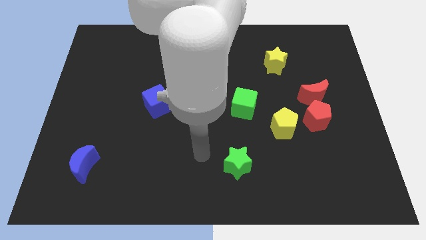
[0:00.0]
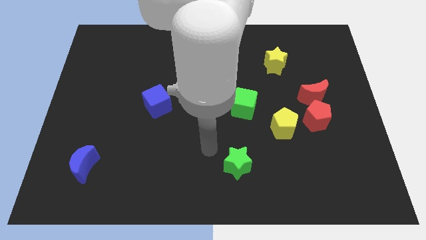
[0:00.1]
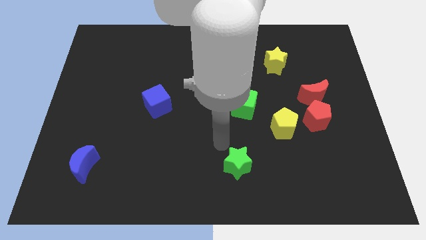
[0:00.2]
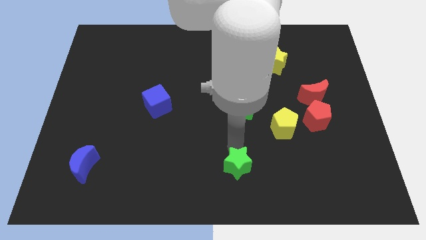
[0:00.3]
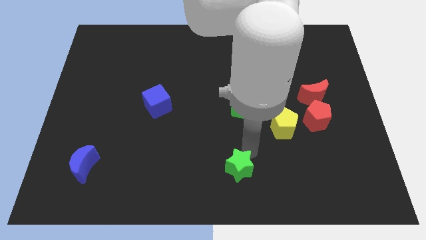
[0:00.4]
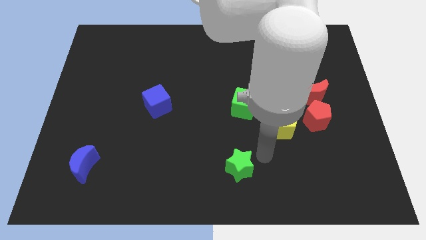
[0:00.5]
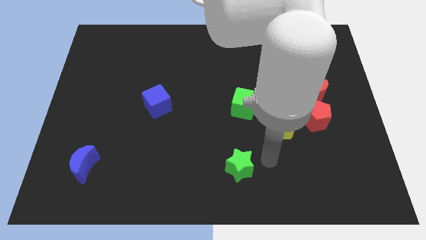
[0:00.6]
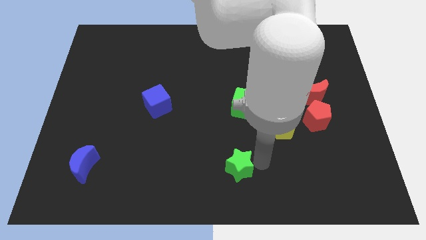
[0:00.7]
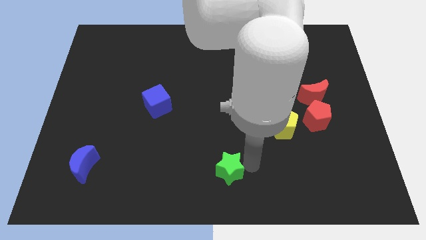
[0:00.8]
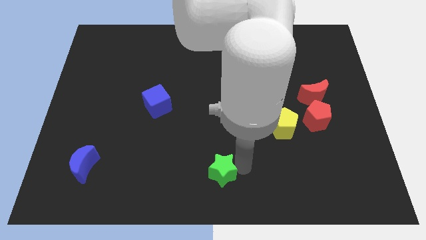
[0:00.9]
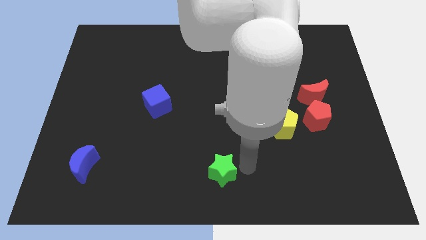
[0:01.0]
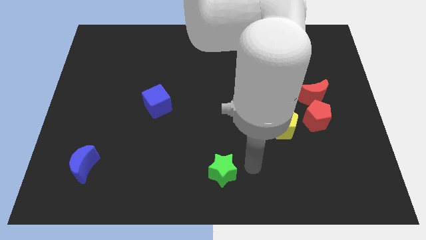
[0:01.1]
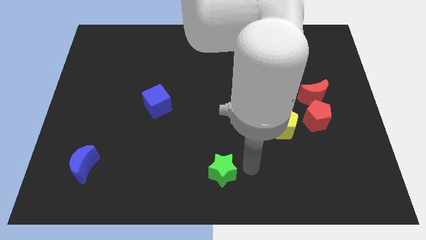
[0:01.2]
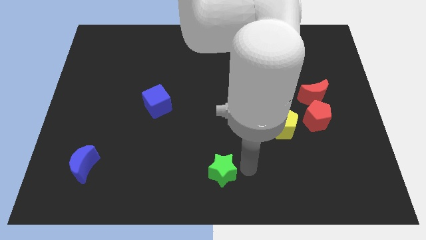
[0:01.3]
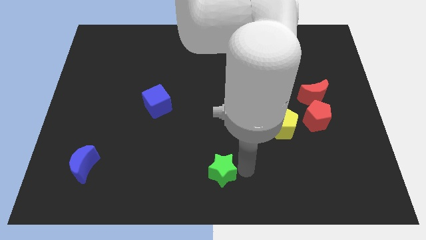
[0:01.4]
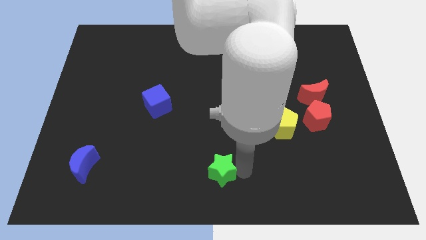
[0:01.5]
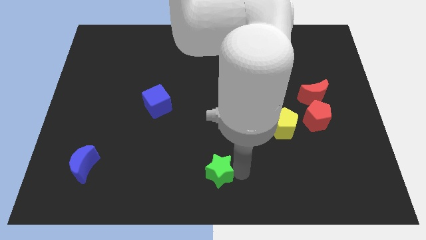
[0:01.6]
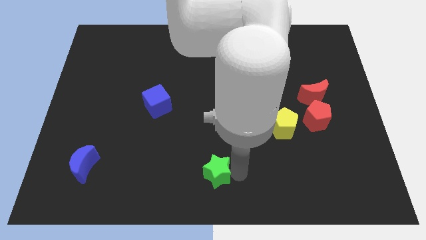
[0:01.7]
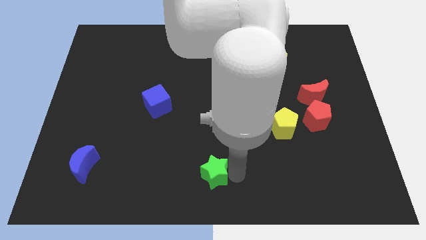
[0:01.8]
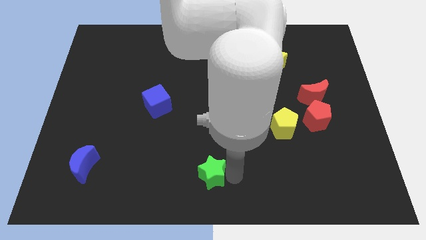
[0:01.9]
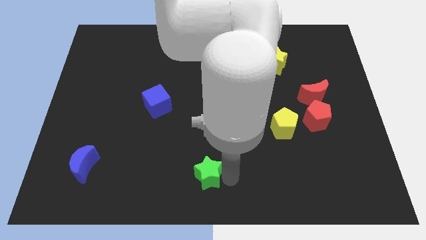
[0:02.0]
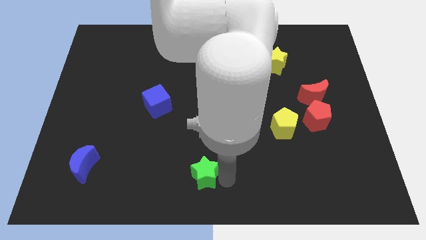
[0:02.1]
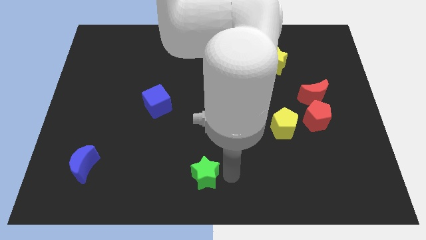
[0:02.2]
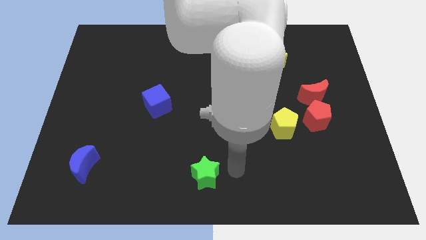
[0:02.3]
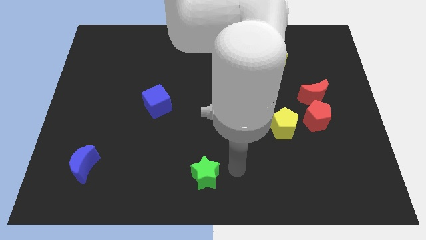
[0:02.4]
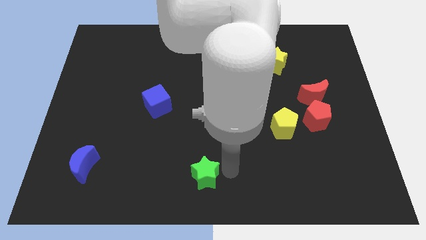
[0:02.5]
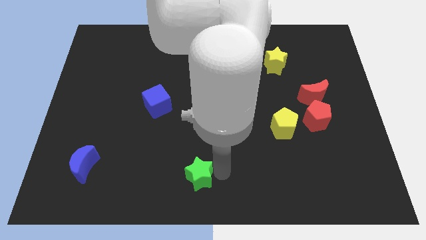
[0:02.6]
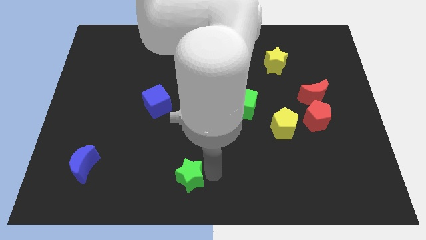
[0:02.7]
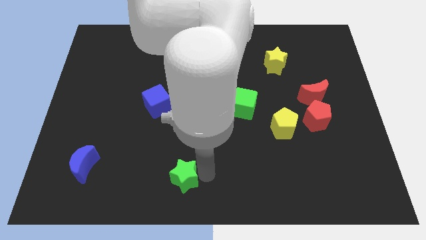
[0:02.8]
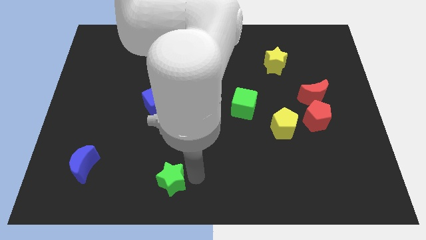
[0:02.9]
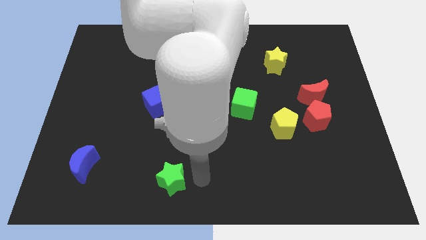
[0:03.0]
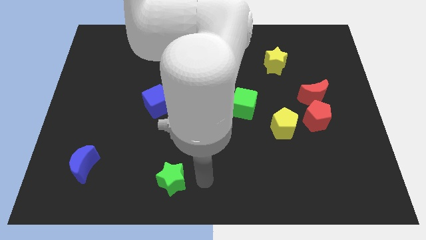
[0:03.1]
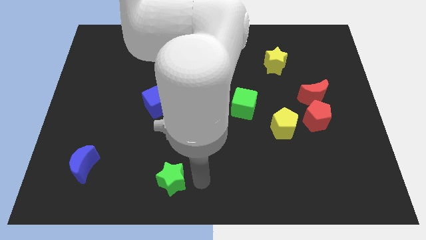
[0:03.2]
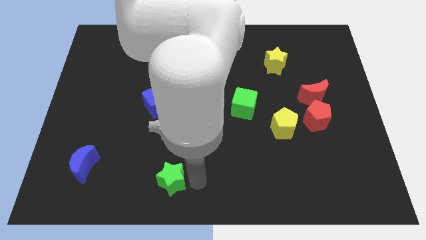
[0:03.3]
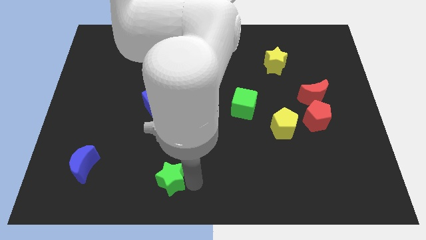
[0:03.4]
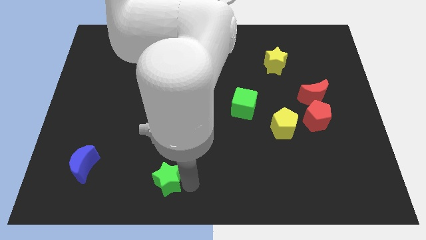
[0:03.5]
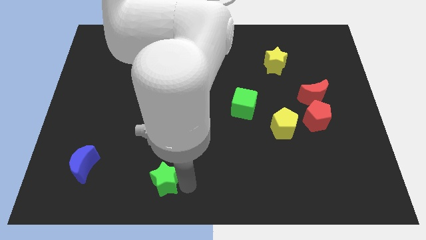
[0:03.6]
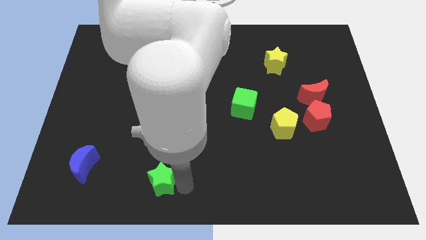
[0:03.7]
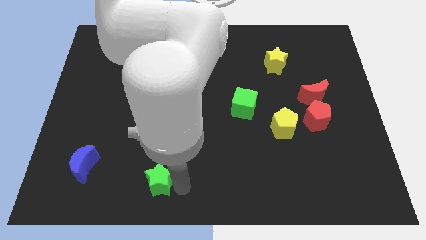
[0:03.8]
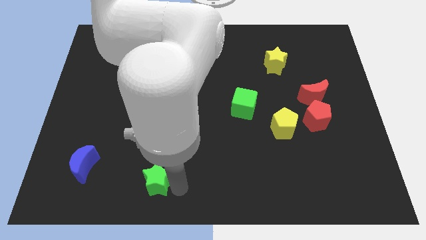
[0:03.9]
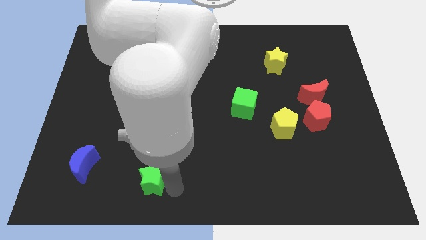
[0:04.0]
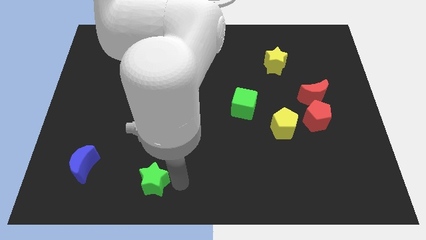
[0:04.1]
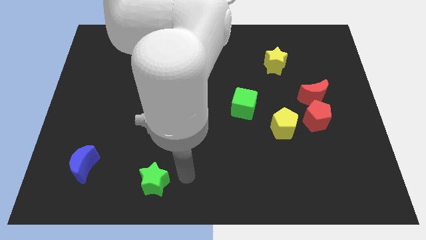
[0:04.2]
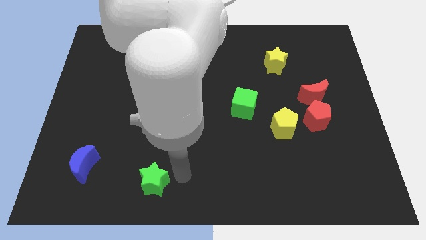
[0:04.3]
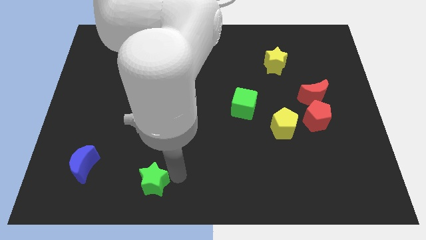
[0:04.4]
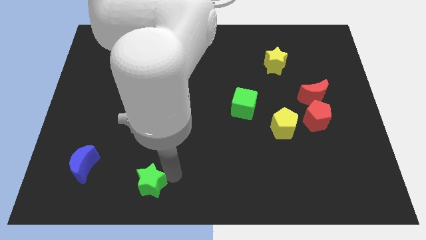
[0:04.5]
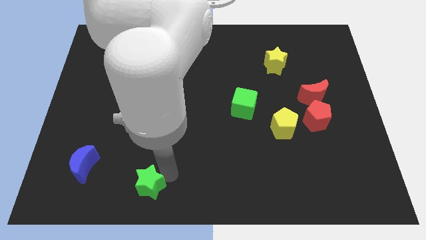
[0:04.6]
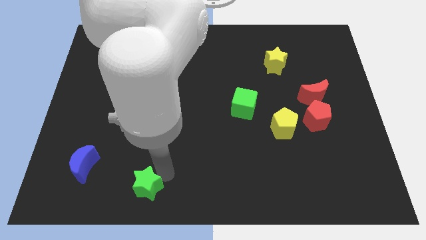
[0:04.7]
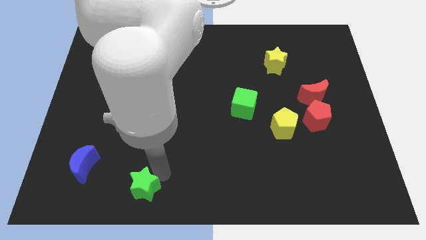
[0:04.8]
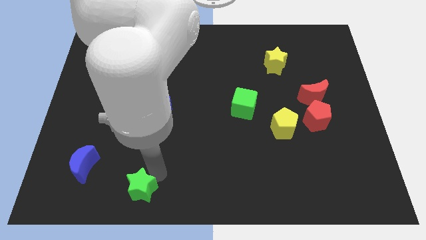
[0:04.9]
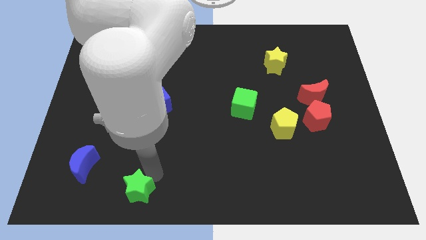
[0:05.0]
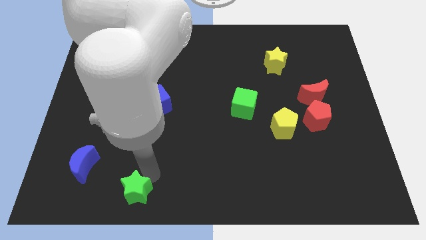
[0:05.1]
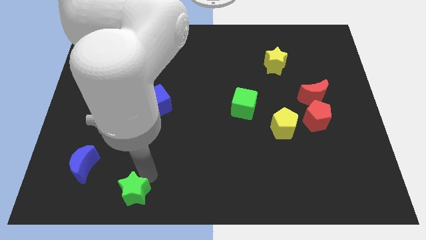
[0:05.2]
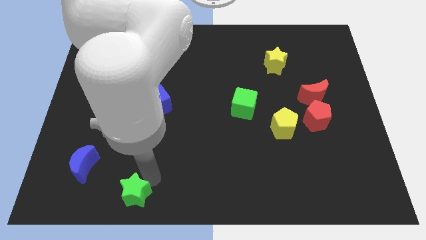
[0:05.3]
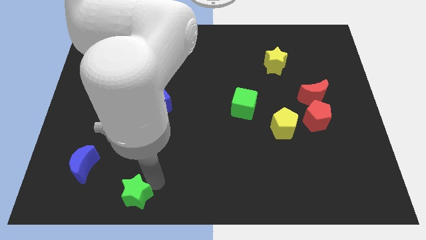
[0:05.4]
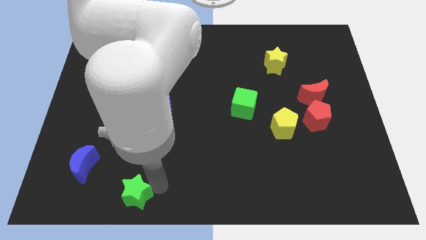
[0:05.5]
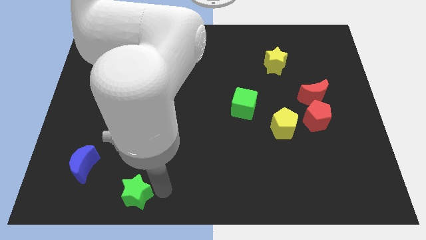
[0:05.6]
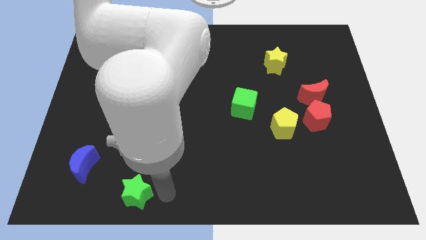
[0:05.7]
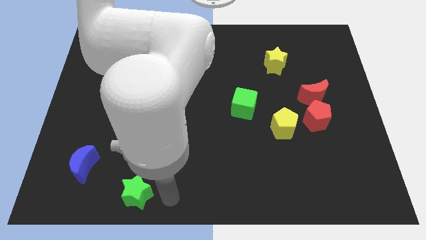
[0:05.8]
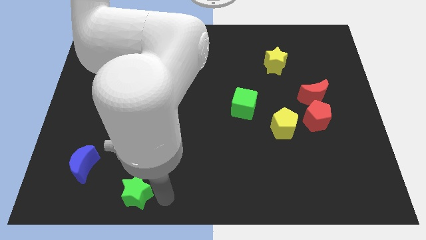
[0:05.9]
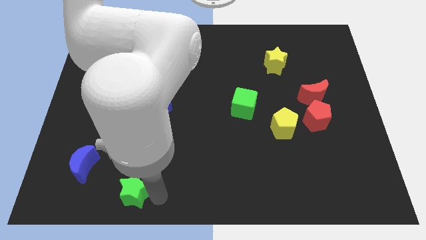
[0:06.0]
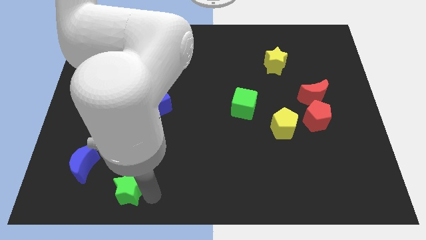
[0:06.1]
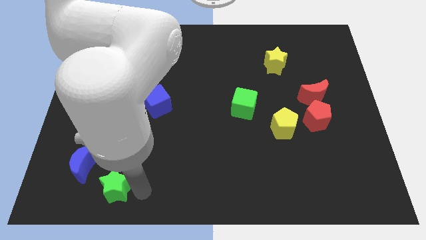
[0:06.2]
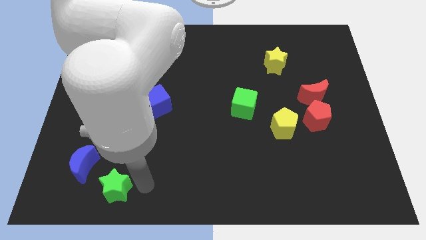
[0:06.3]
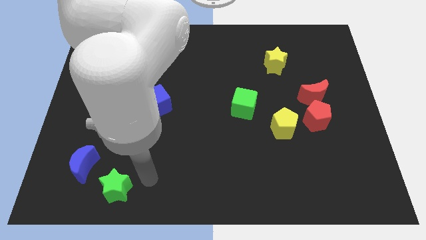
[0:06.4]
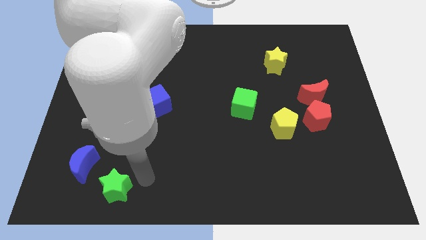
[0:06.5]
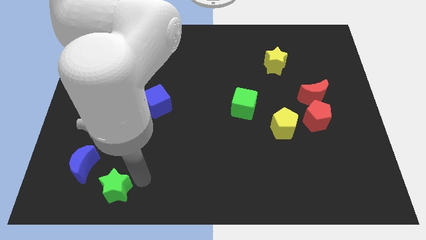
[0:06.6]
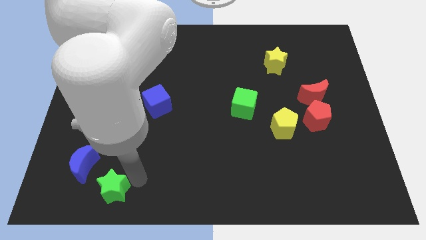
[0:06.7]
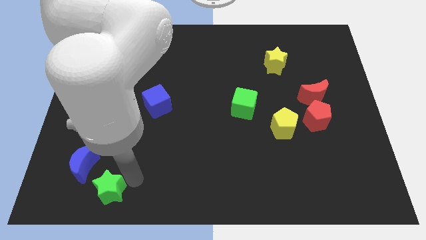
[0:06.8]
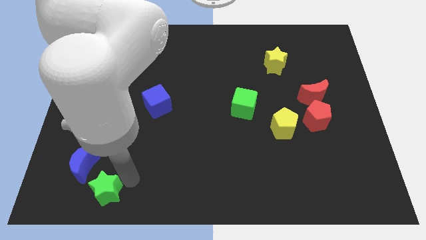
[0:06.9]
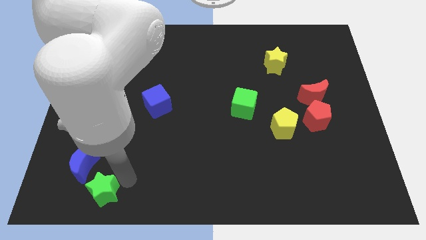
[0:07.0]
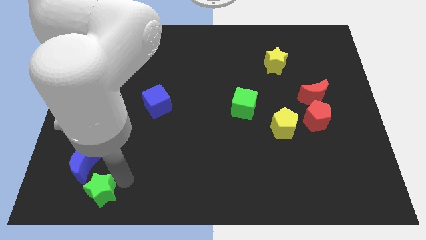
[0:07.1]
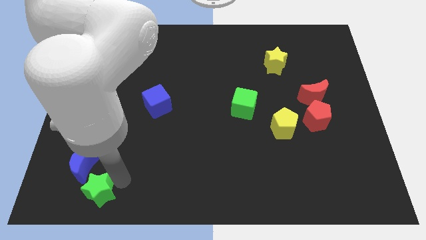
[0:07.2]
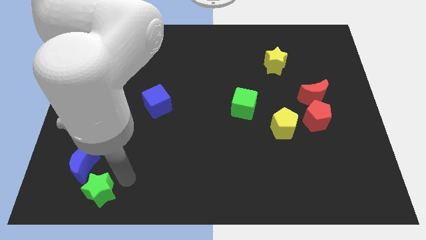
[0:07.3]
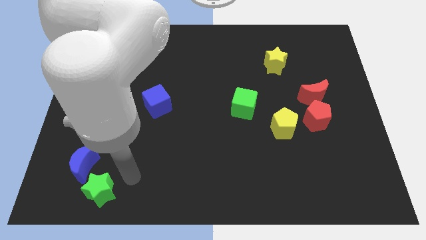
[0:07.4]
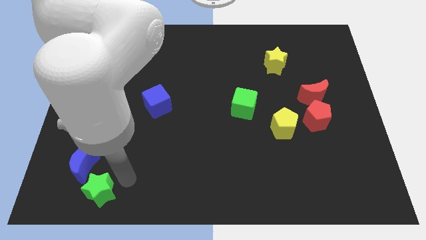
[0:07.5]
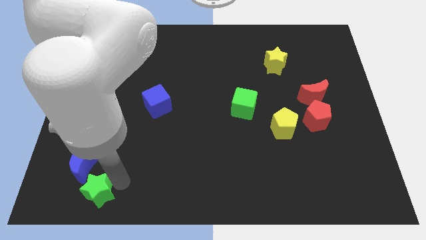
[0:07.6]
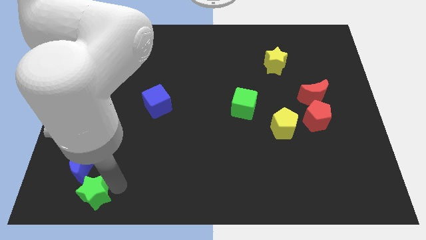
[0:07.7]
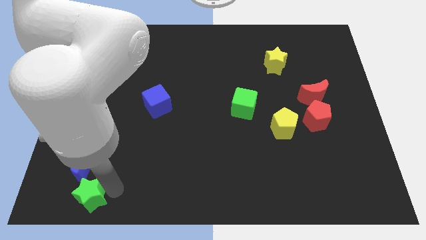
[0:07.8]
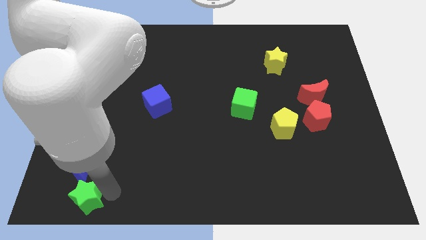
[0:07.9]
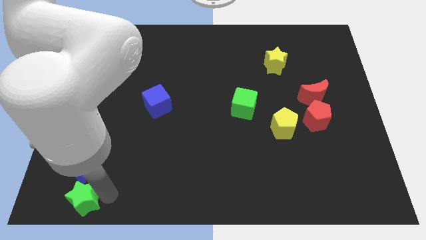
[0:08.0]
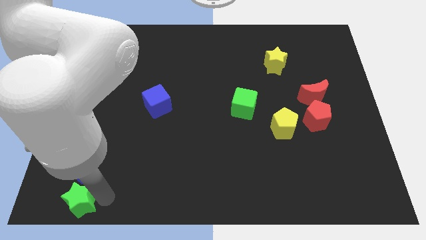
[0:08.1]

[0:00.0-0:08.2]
put the green star to the bottom left
